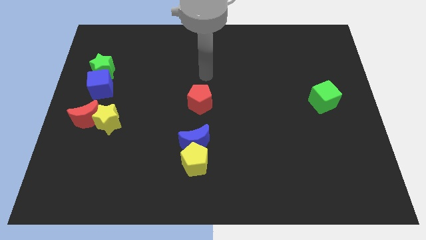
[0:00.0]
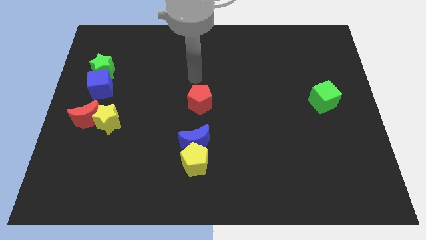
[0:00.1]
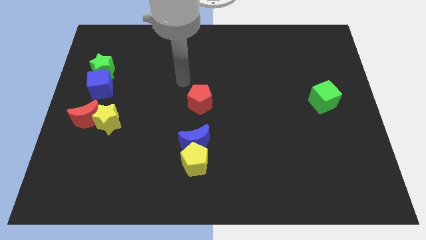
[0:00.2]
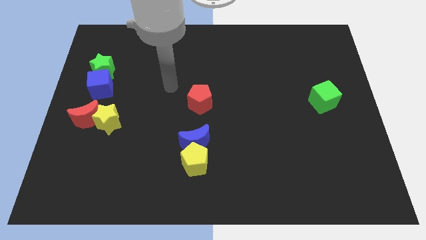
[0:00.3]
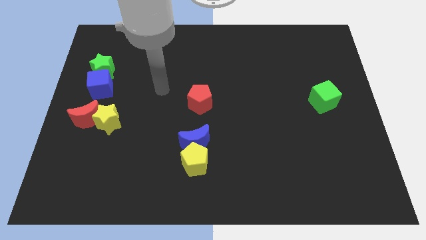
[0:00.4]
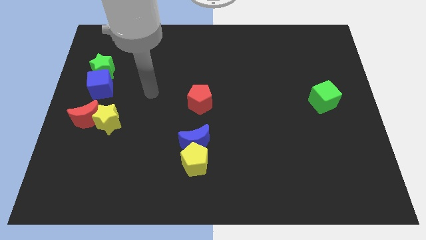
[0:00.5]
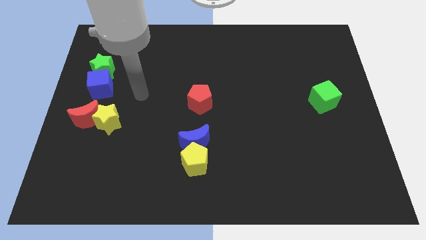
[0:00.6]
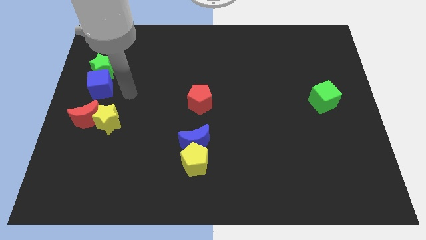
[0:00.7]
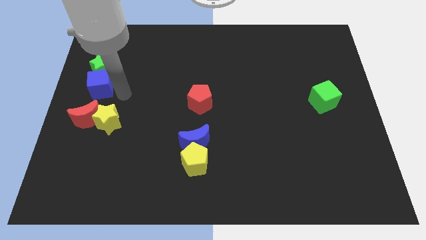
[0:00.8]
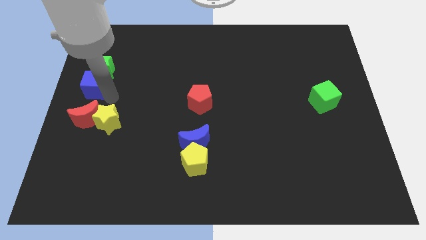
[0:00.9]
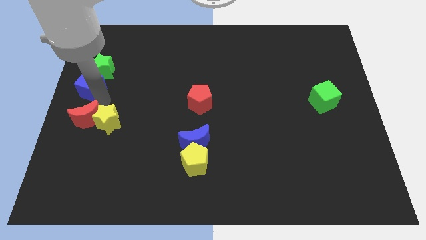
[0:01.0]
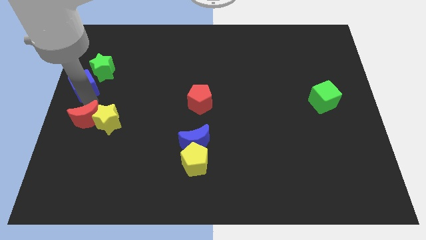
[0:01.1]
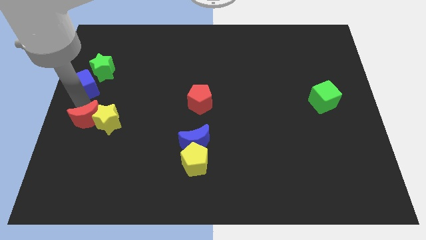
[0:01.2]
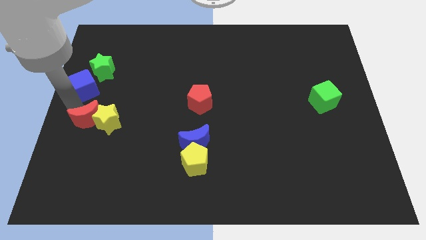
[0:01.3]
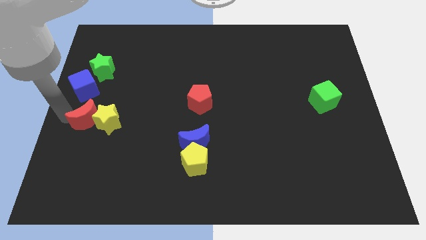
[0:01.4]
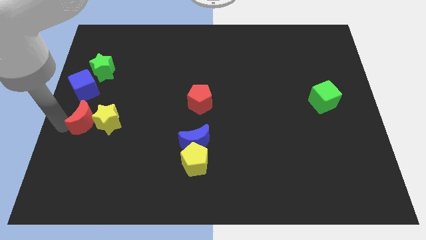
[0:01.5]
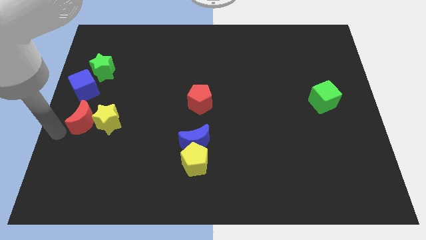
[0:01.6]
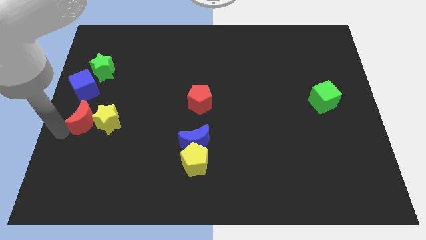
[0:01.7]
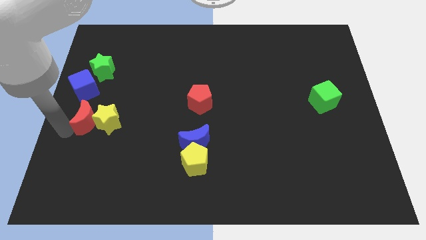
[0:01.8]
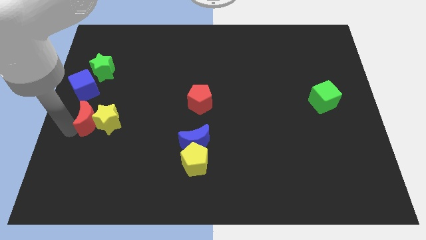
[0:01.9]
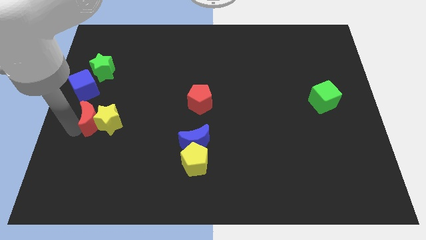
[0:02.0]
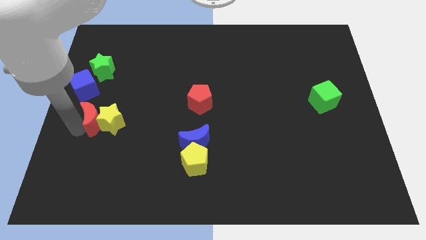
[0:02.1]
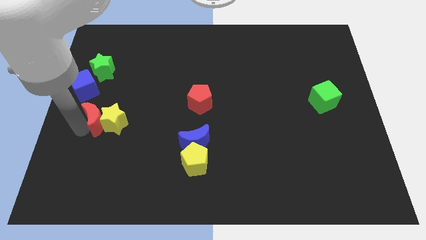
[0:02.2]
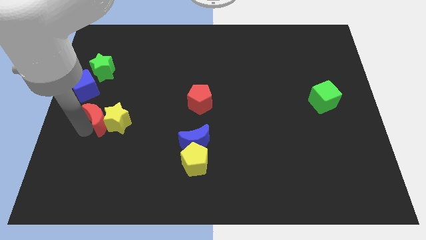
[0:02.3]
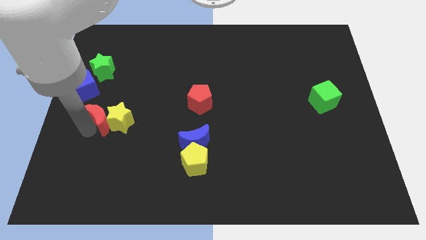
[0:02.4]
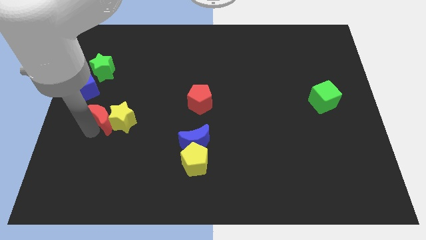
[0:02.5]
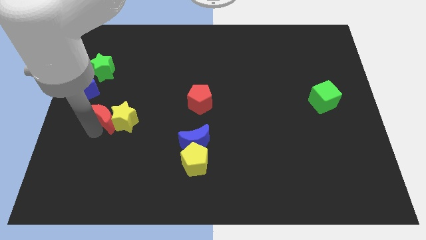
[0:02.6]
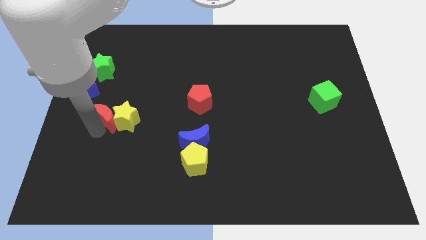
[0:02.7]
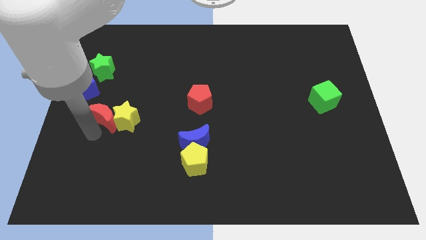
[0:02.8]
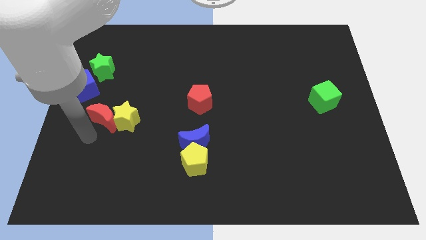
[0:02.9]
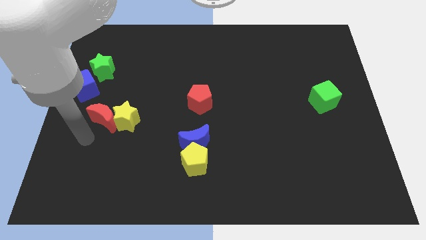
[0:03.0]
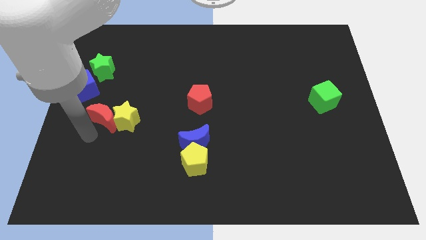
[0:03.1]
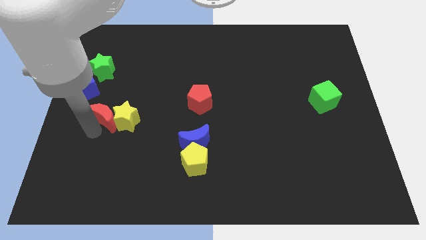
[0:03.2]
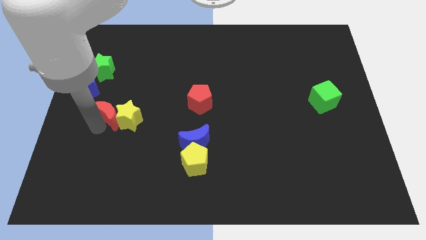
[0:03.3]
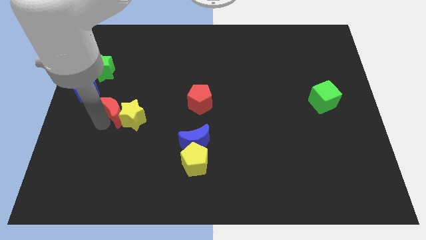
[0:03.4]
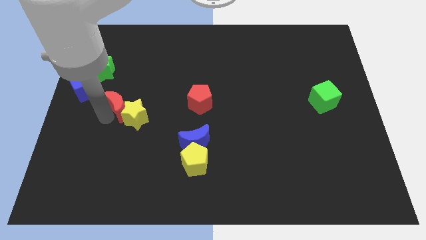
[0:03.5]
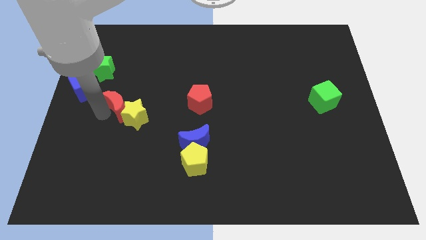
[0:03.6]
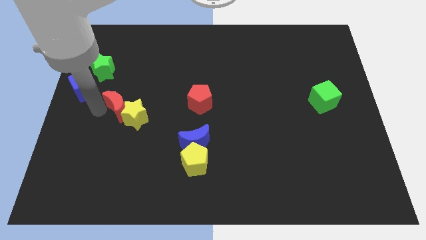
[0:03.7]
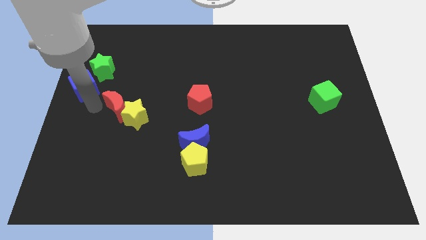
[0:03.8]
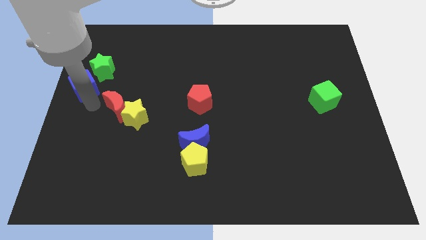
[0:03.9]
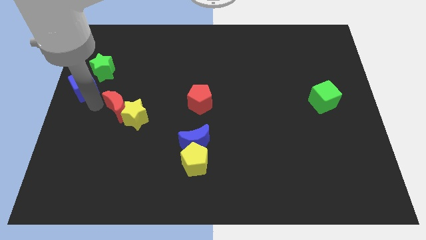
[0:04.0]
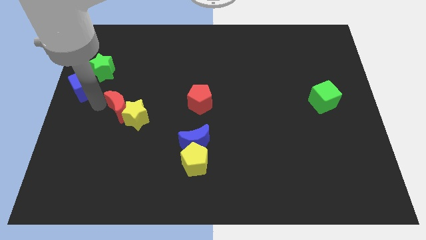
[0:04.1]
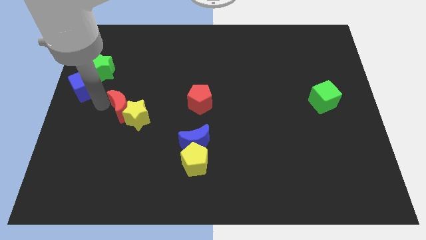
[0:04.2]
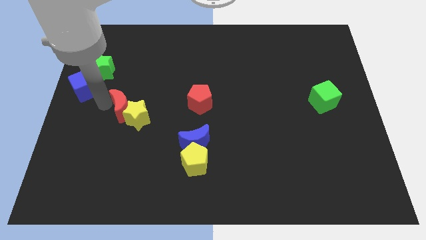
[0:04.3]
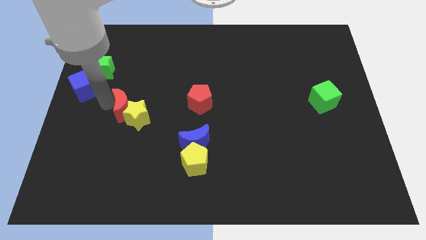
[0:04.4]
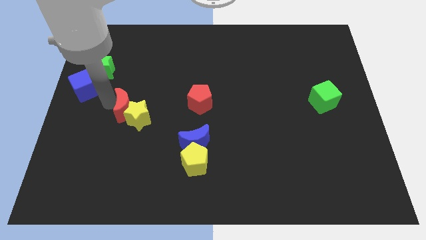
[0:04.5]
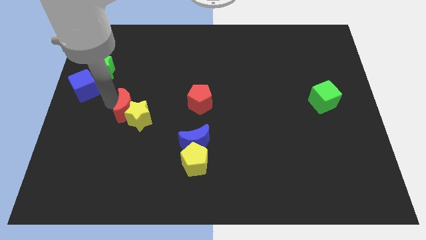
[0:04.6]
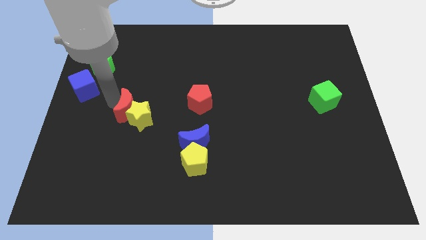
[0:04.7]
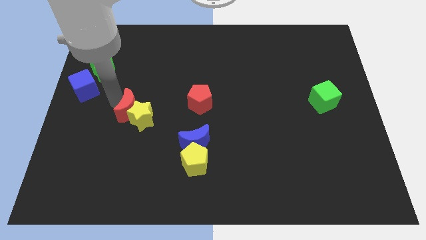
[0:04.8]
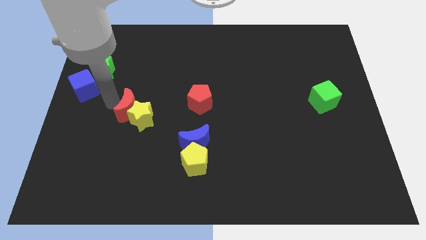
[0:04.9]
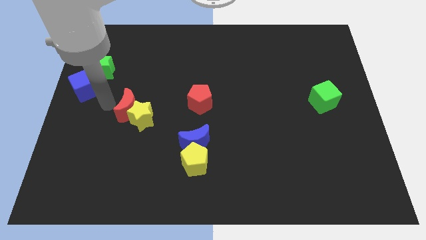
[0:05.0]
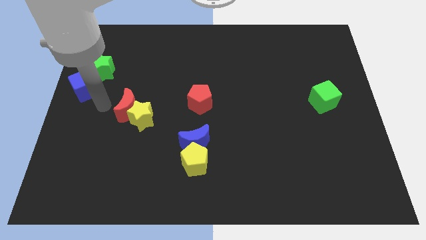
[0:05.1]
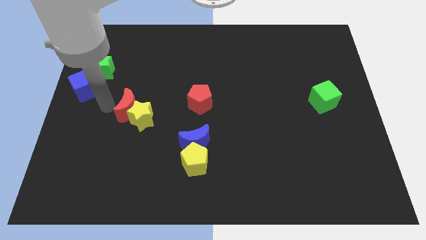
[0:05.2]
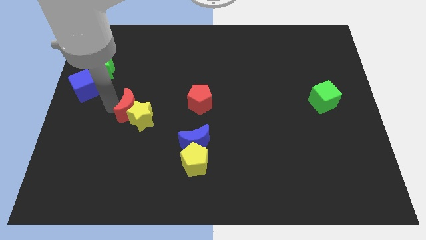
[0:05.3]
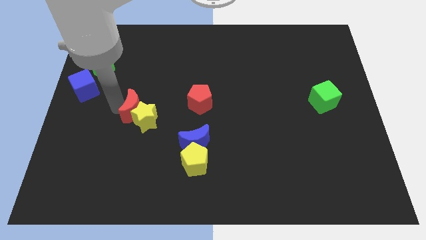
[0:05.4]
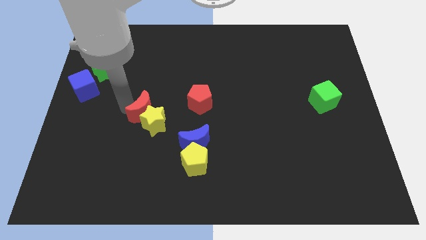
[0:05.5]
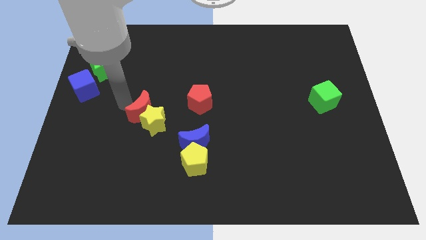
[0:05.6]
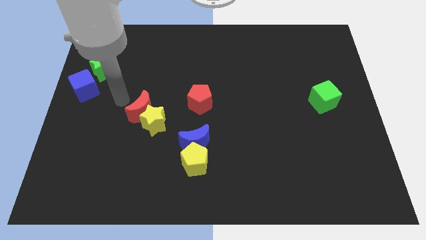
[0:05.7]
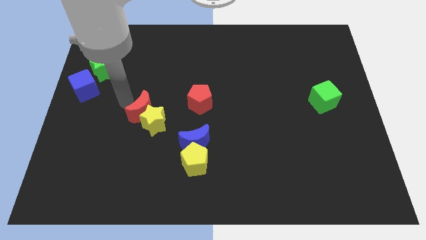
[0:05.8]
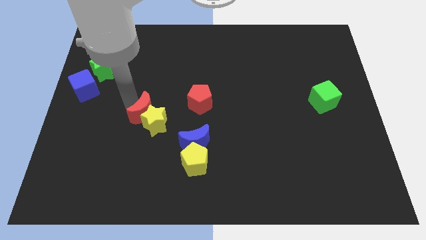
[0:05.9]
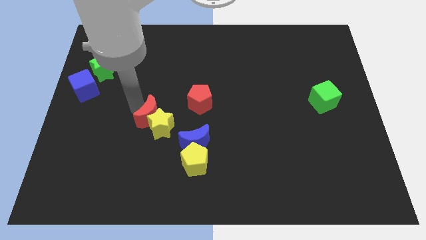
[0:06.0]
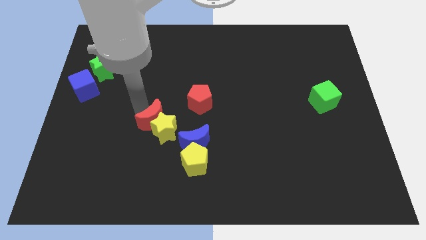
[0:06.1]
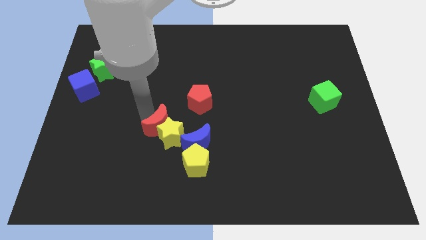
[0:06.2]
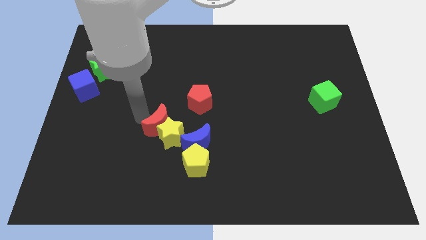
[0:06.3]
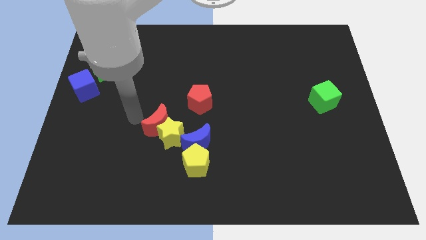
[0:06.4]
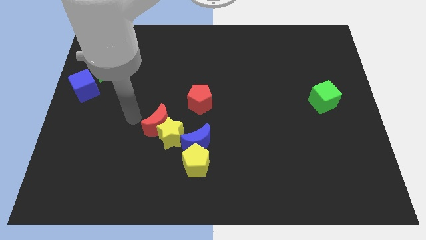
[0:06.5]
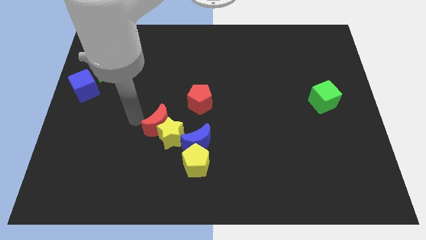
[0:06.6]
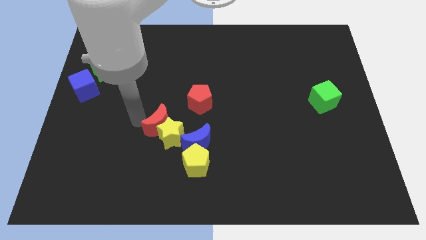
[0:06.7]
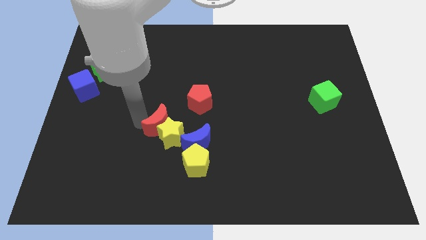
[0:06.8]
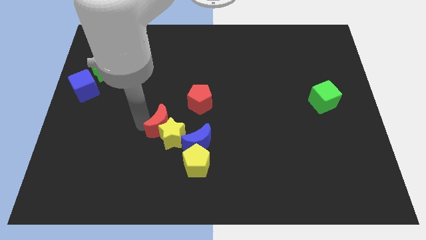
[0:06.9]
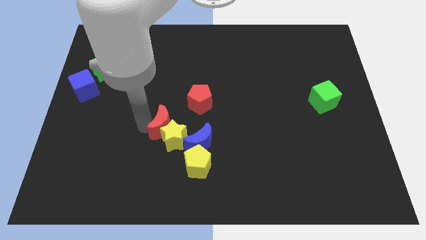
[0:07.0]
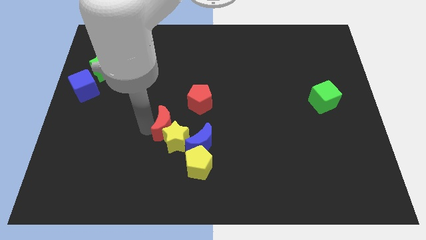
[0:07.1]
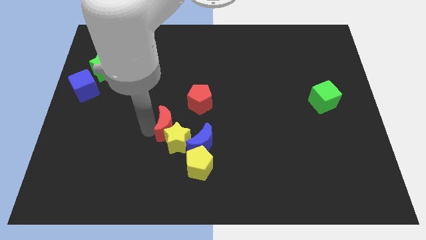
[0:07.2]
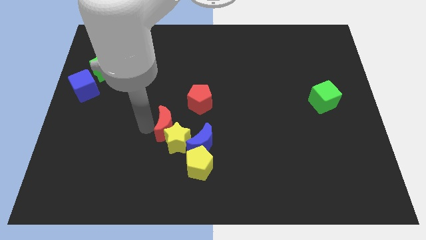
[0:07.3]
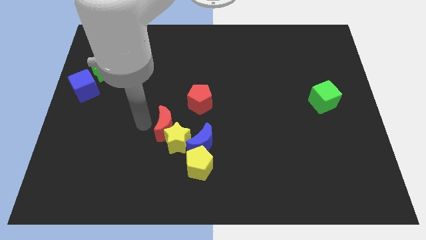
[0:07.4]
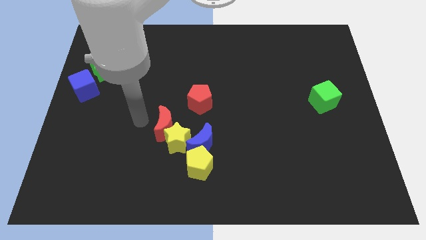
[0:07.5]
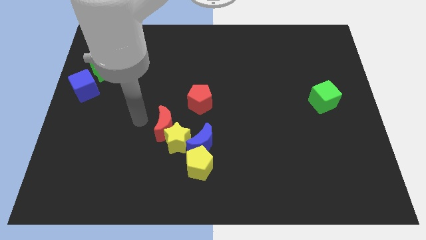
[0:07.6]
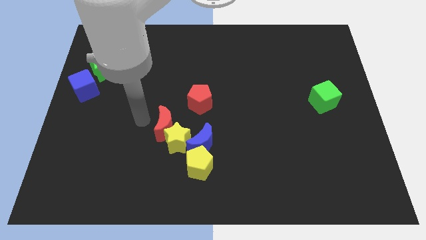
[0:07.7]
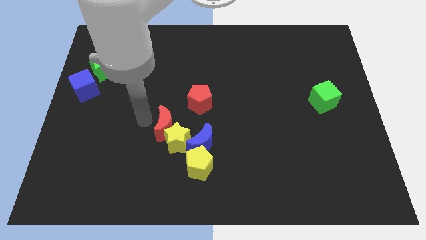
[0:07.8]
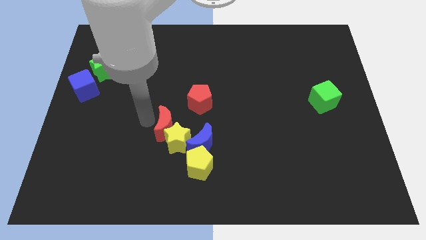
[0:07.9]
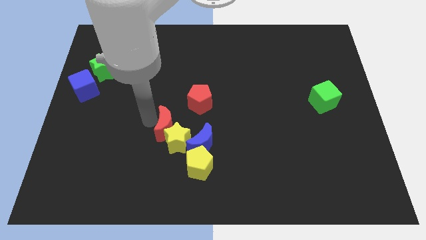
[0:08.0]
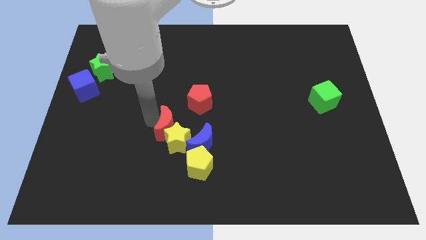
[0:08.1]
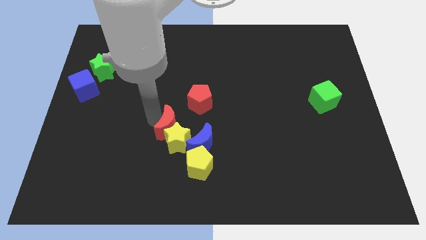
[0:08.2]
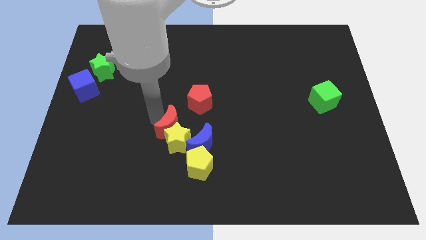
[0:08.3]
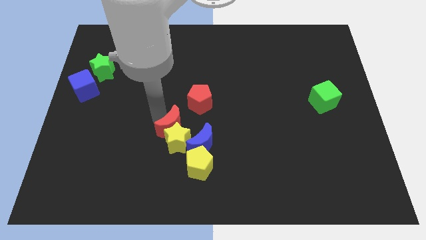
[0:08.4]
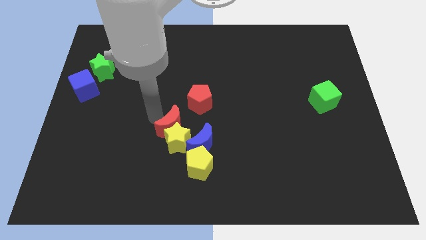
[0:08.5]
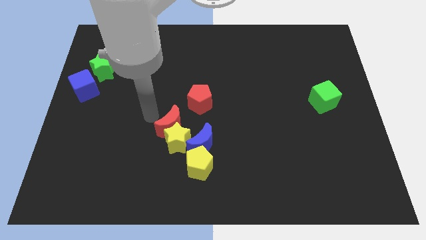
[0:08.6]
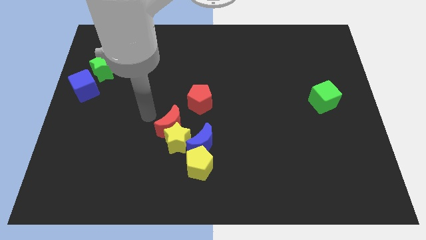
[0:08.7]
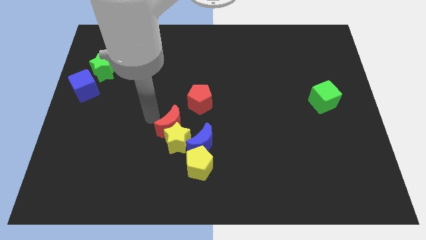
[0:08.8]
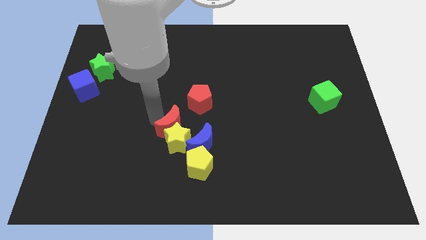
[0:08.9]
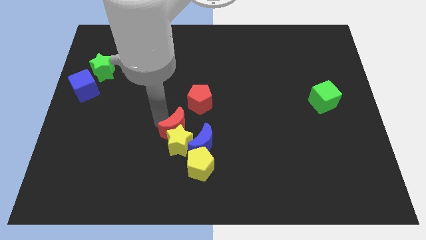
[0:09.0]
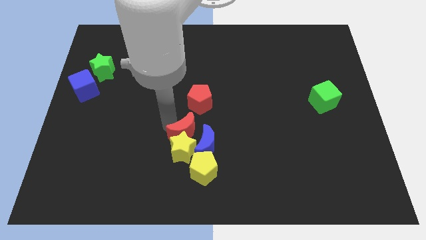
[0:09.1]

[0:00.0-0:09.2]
push the red moon towards the blue moon
